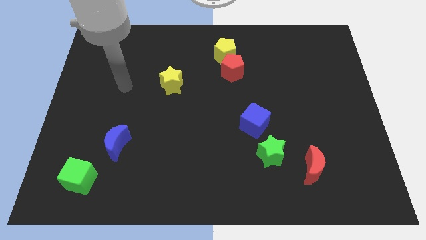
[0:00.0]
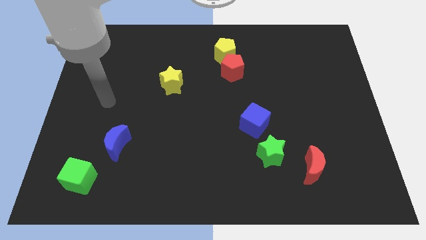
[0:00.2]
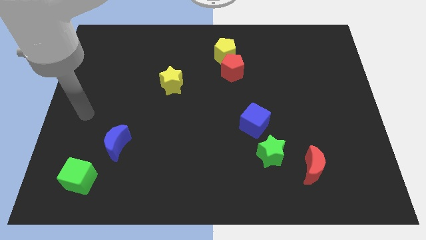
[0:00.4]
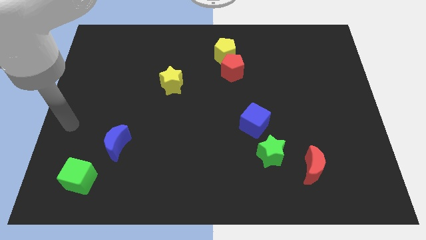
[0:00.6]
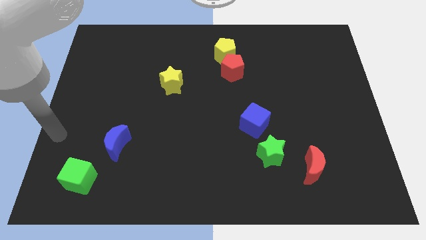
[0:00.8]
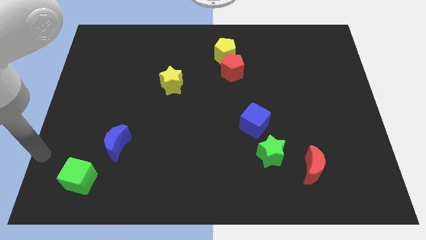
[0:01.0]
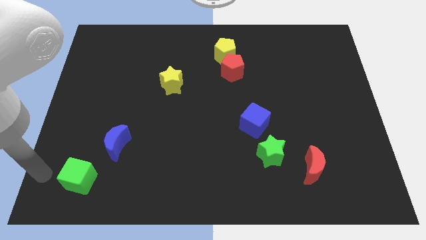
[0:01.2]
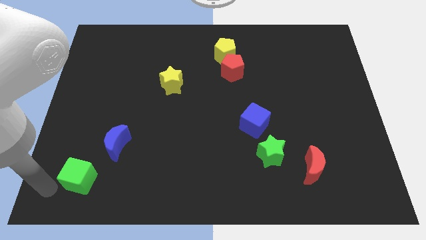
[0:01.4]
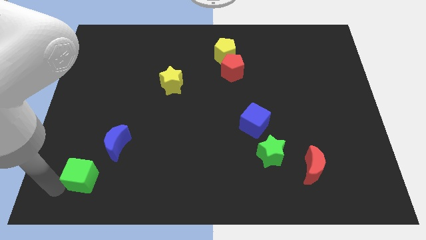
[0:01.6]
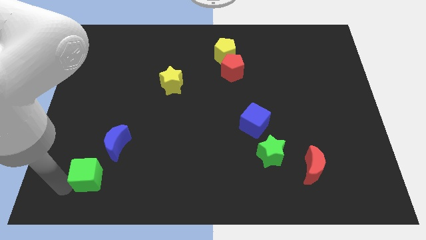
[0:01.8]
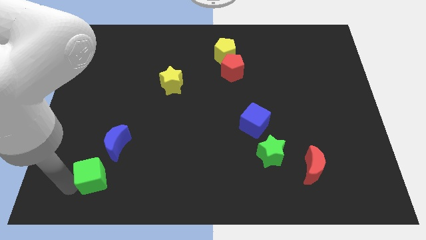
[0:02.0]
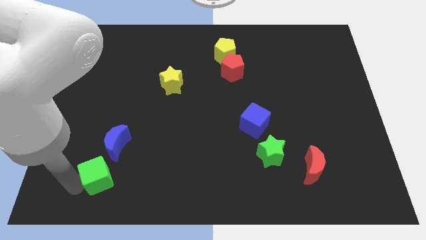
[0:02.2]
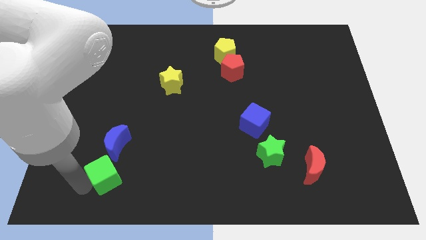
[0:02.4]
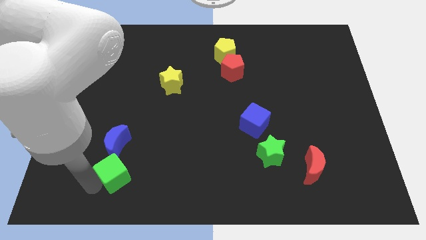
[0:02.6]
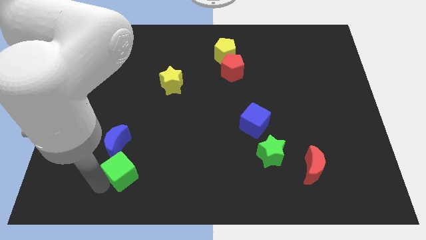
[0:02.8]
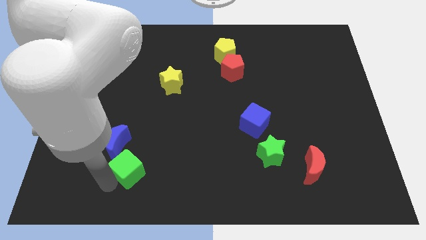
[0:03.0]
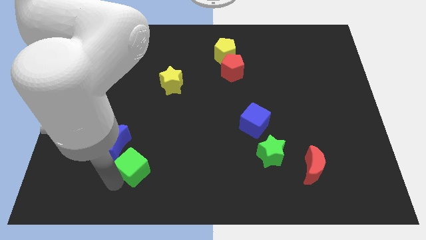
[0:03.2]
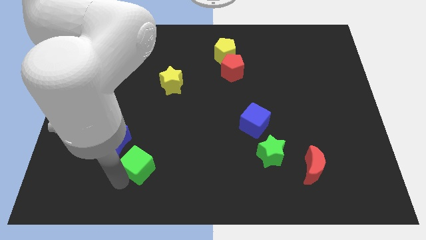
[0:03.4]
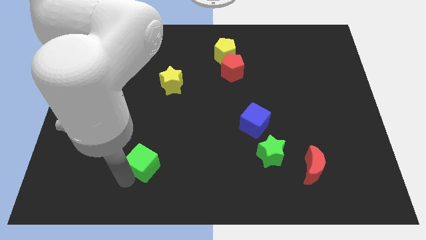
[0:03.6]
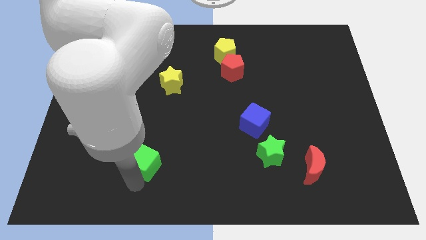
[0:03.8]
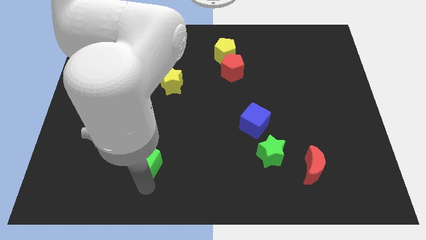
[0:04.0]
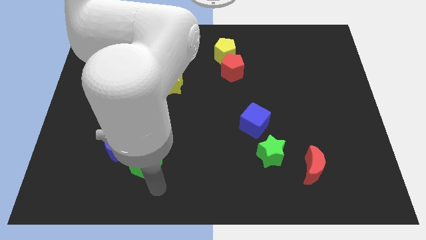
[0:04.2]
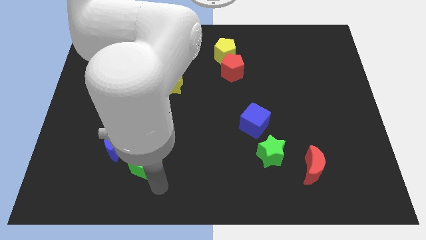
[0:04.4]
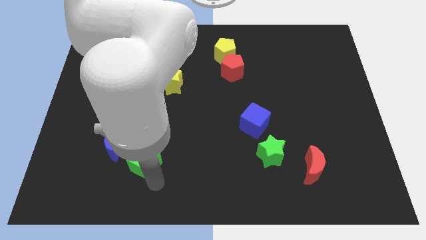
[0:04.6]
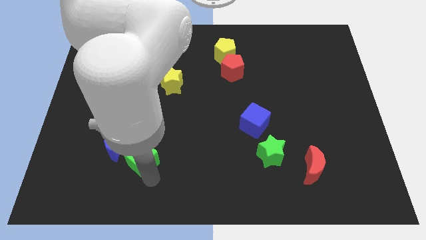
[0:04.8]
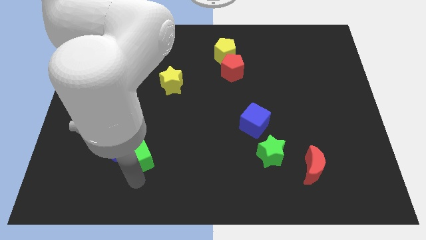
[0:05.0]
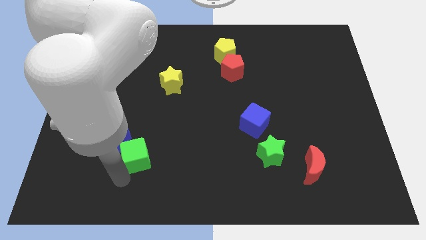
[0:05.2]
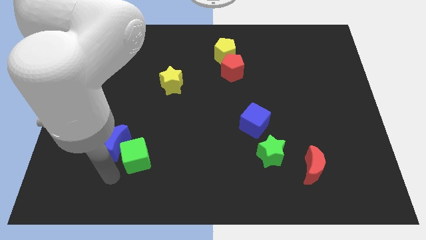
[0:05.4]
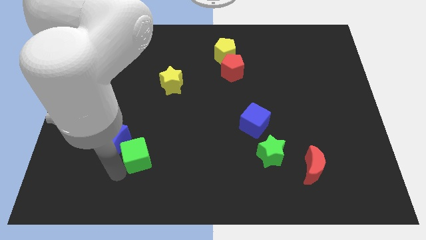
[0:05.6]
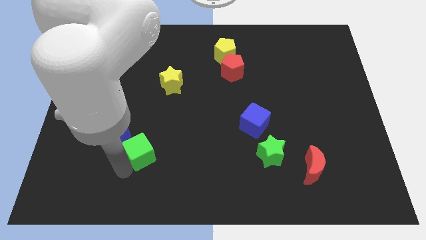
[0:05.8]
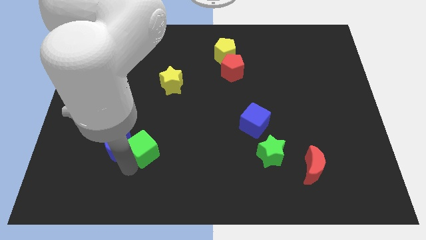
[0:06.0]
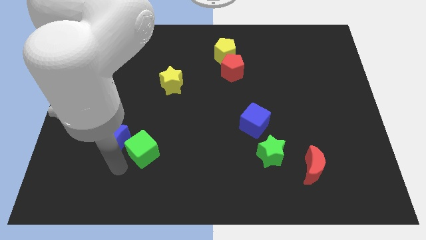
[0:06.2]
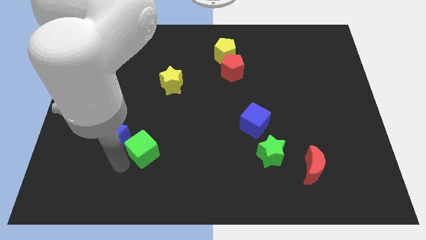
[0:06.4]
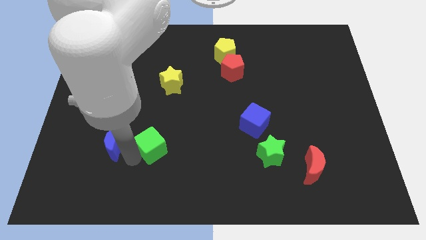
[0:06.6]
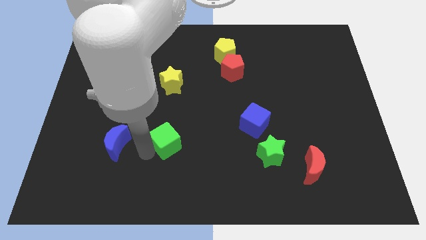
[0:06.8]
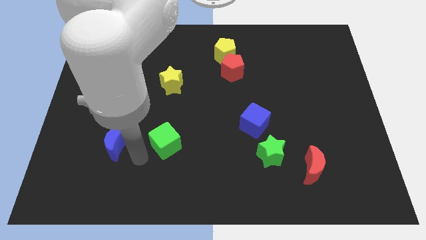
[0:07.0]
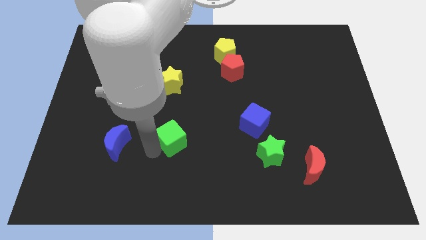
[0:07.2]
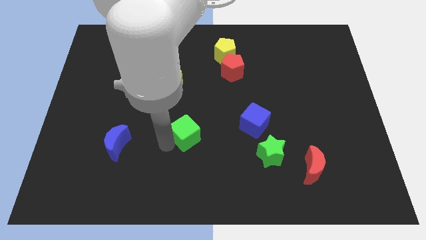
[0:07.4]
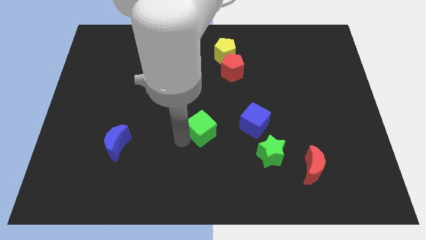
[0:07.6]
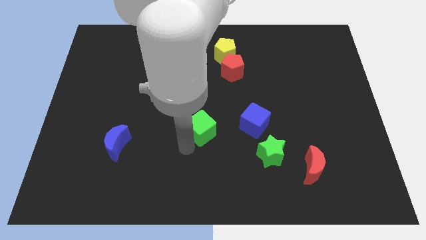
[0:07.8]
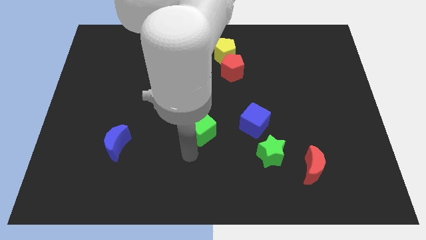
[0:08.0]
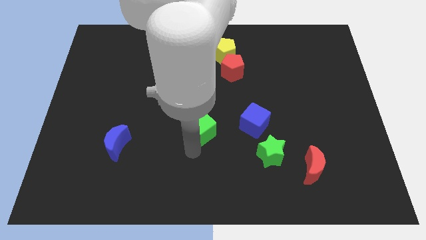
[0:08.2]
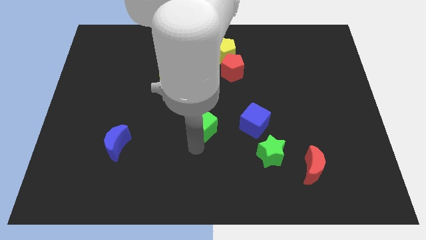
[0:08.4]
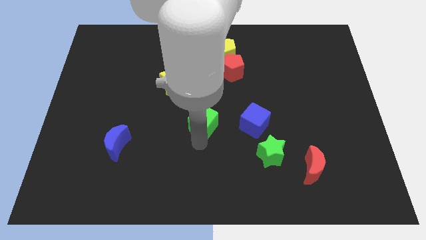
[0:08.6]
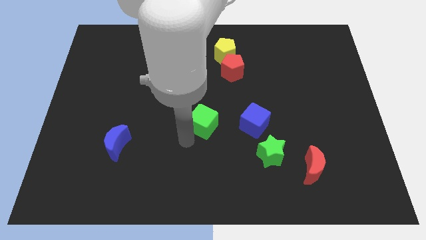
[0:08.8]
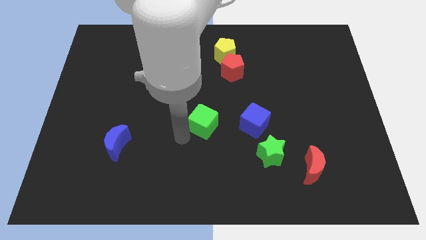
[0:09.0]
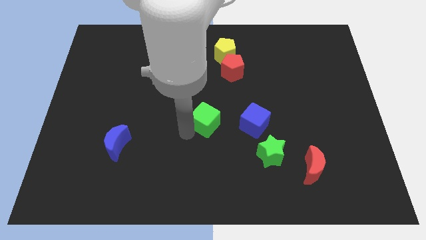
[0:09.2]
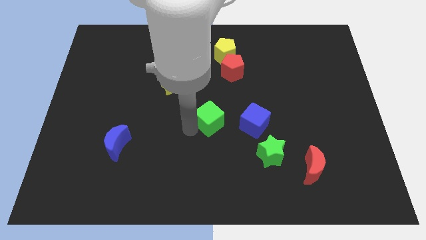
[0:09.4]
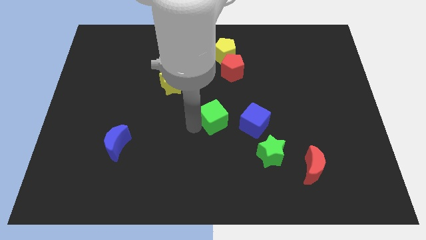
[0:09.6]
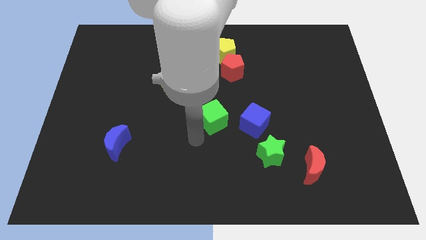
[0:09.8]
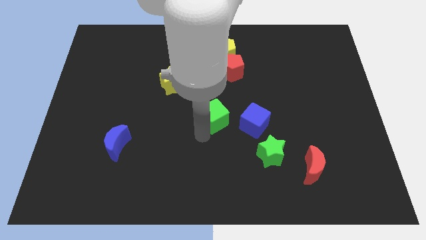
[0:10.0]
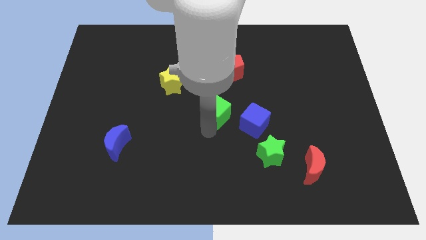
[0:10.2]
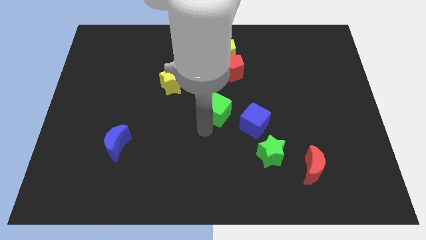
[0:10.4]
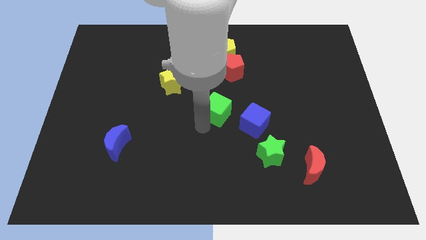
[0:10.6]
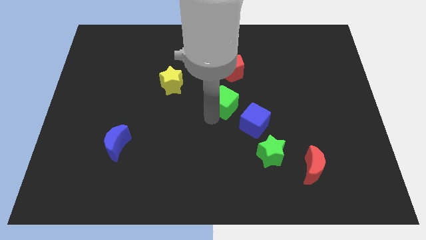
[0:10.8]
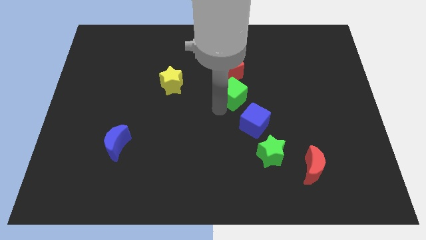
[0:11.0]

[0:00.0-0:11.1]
push the green cube above the blue cube
